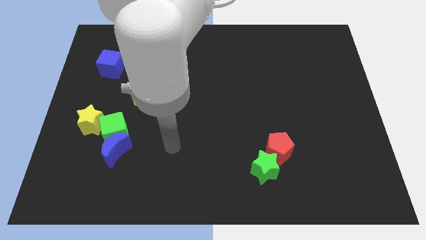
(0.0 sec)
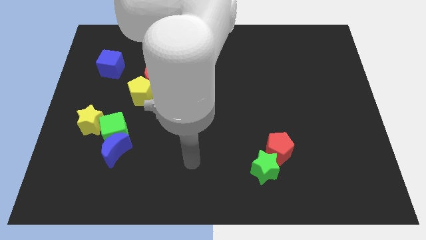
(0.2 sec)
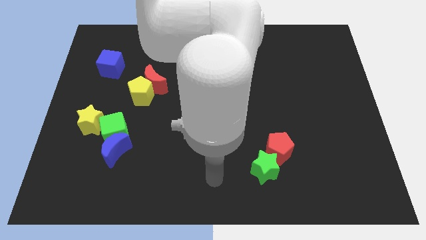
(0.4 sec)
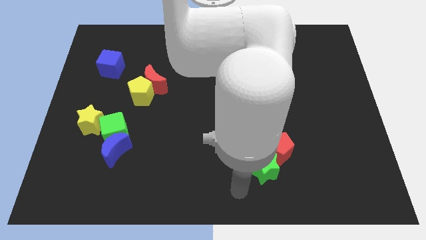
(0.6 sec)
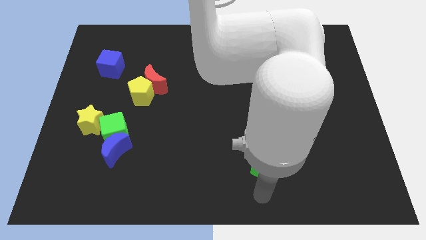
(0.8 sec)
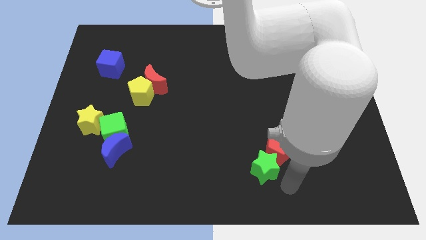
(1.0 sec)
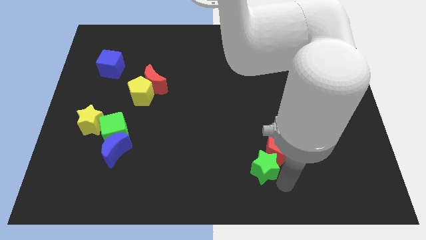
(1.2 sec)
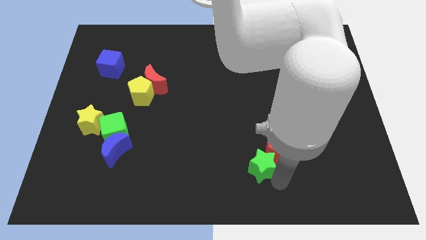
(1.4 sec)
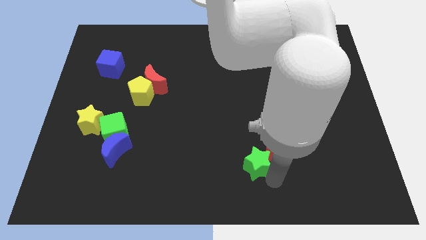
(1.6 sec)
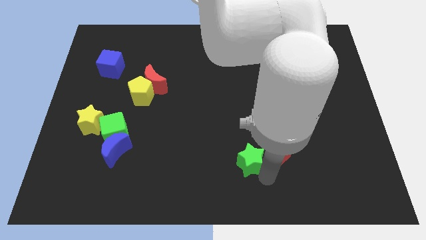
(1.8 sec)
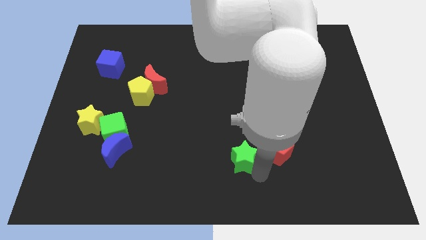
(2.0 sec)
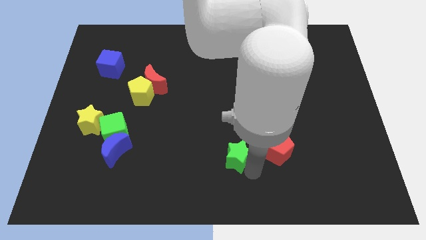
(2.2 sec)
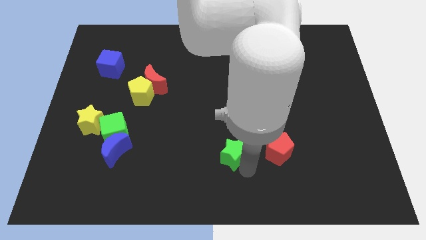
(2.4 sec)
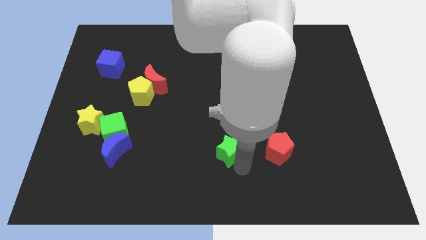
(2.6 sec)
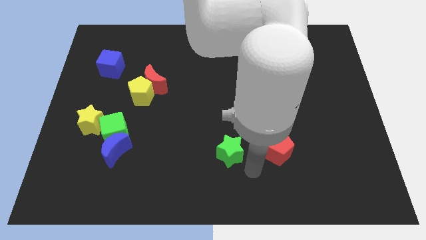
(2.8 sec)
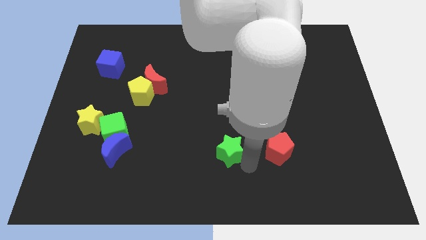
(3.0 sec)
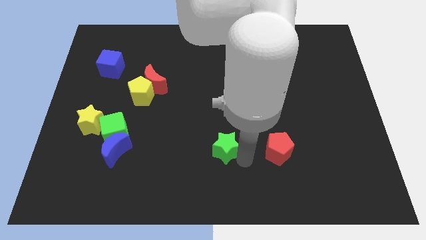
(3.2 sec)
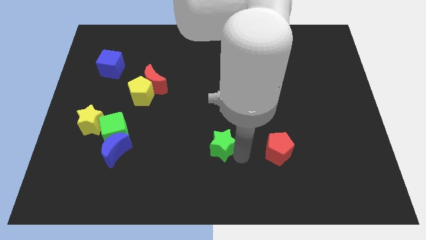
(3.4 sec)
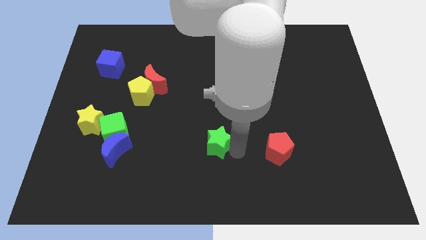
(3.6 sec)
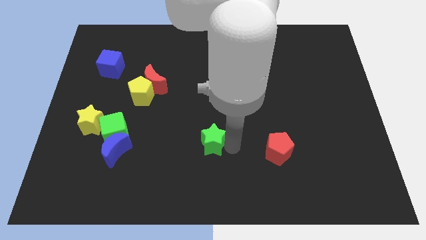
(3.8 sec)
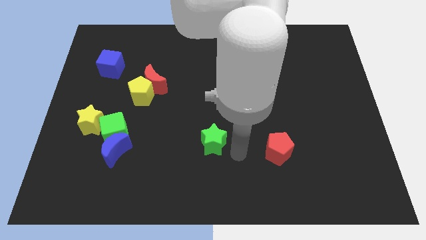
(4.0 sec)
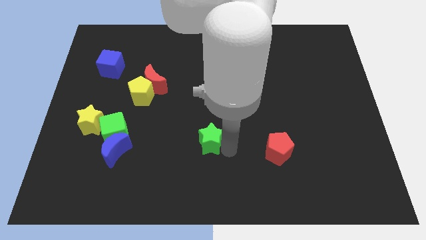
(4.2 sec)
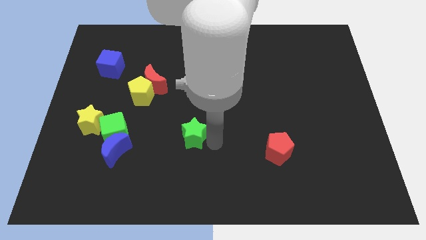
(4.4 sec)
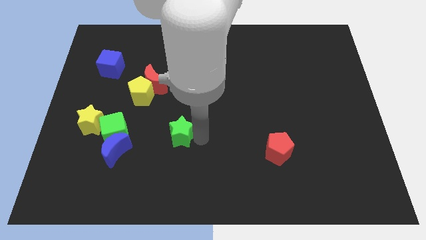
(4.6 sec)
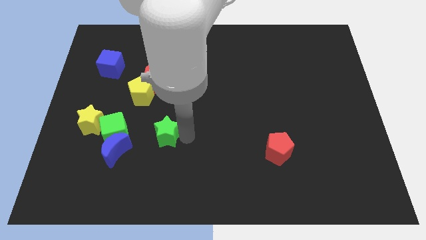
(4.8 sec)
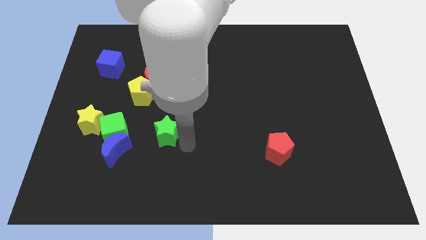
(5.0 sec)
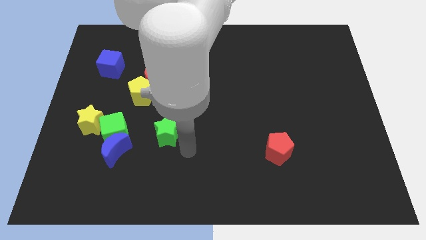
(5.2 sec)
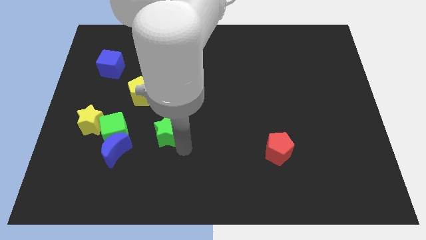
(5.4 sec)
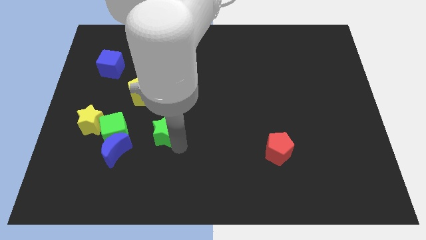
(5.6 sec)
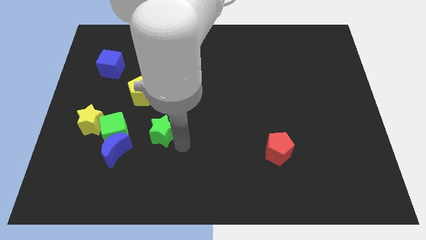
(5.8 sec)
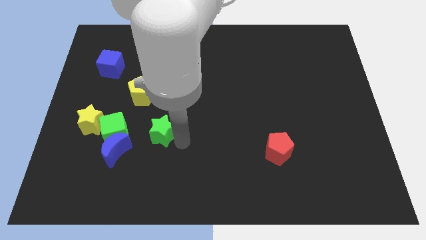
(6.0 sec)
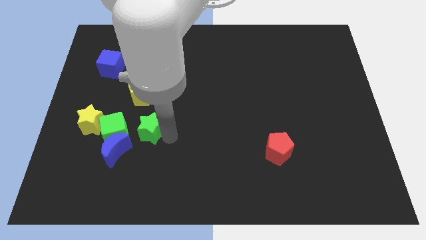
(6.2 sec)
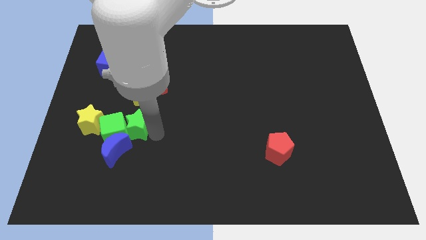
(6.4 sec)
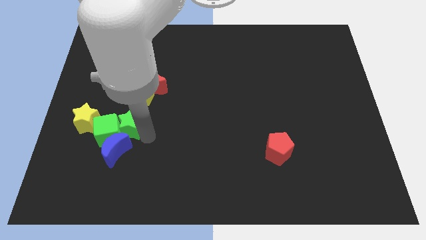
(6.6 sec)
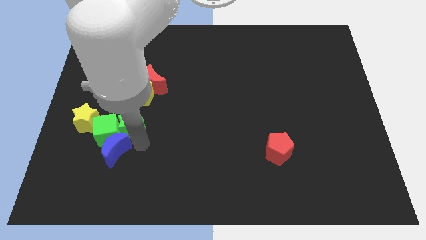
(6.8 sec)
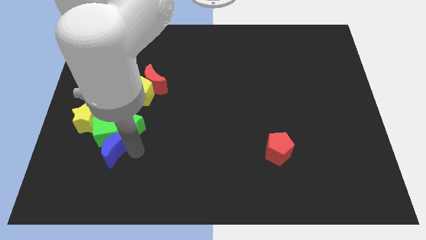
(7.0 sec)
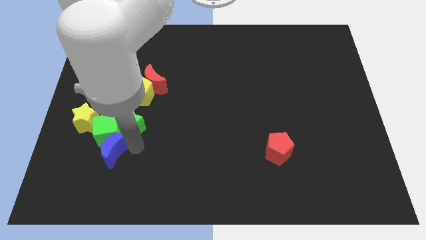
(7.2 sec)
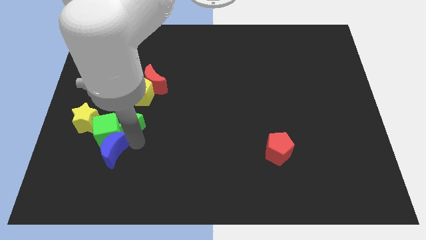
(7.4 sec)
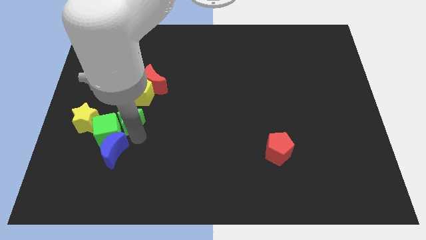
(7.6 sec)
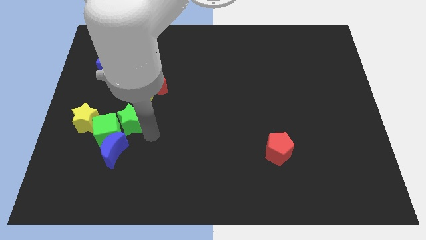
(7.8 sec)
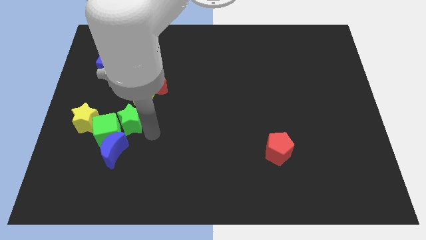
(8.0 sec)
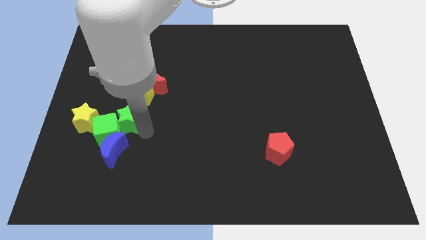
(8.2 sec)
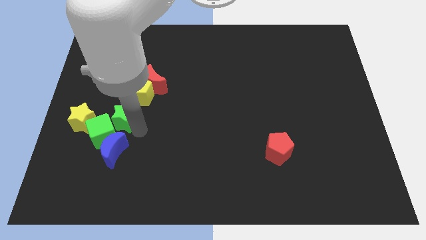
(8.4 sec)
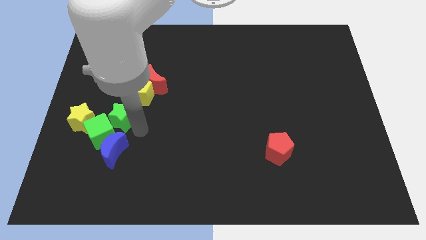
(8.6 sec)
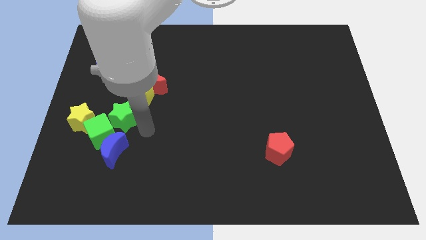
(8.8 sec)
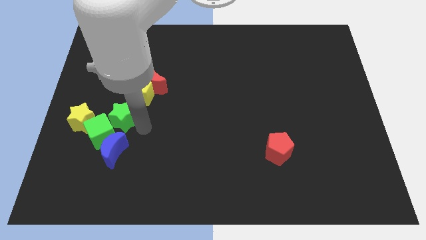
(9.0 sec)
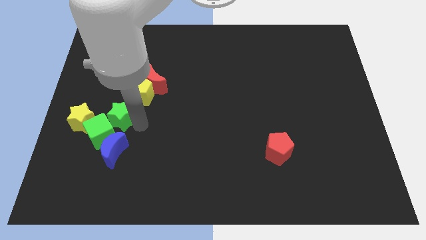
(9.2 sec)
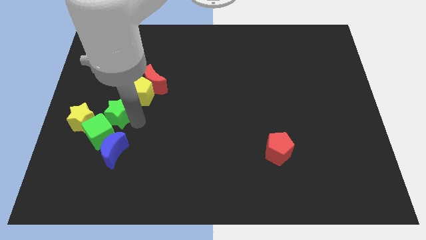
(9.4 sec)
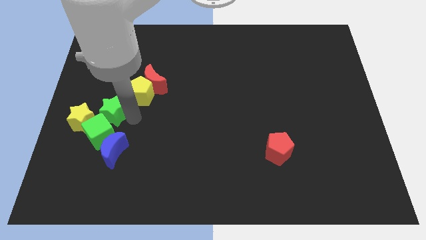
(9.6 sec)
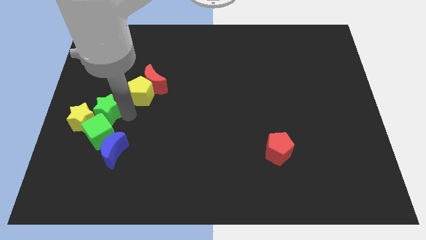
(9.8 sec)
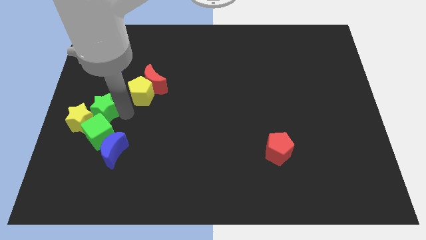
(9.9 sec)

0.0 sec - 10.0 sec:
slide the green star to the left side
